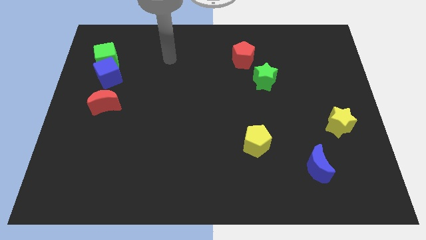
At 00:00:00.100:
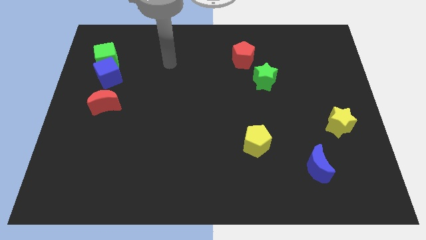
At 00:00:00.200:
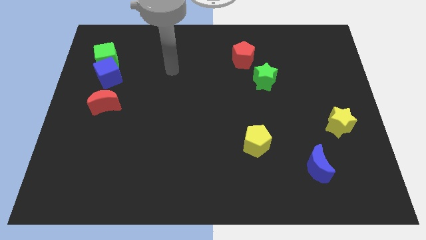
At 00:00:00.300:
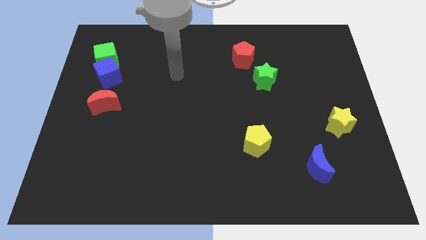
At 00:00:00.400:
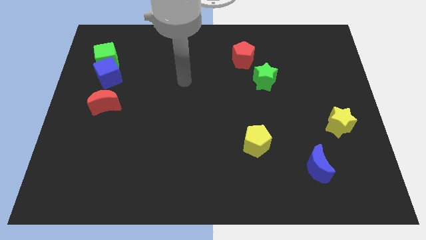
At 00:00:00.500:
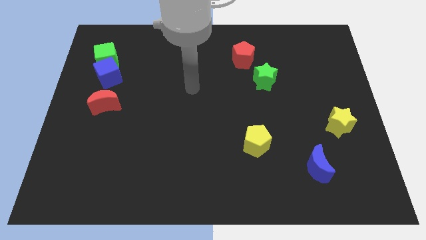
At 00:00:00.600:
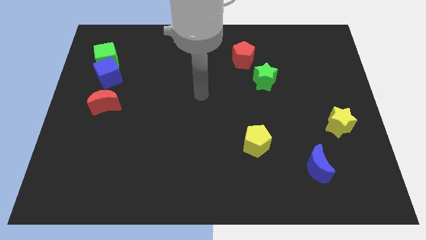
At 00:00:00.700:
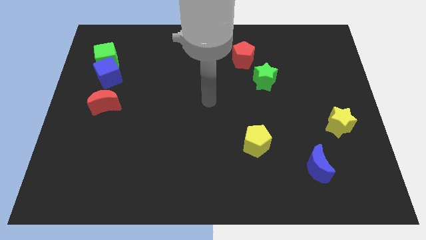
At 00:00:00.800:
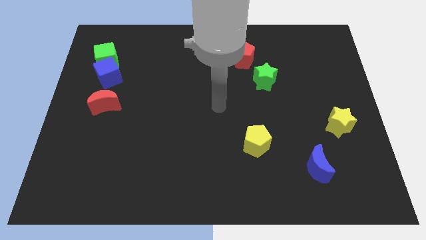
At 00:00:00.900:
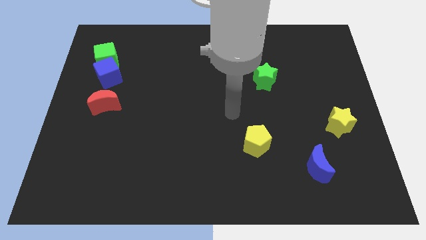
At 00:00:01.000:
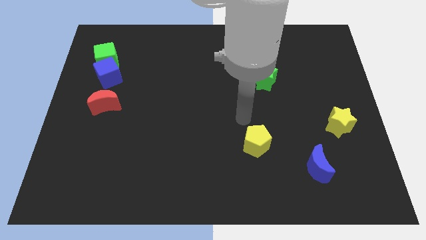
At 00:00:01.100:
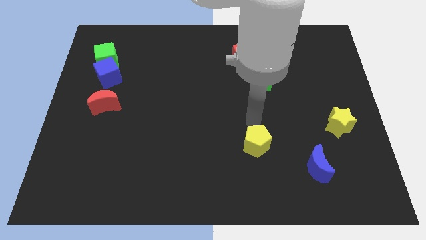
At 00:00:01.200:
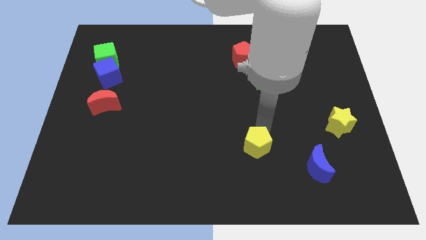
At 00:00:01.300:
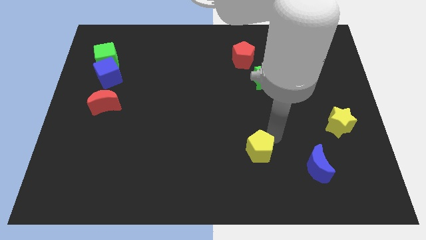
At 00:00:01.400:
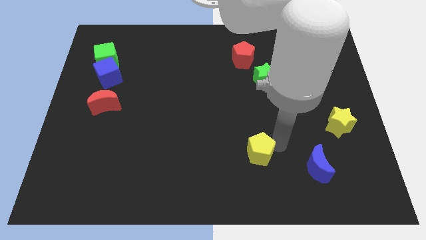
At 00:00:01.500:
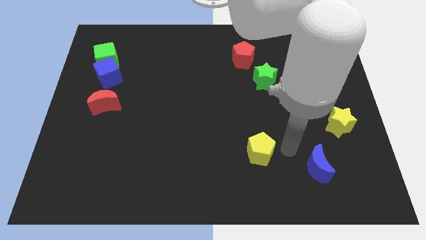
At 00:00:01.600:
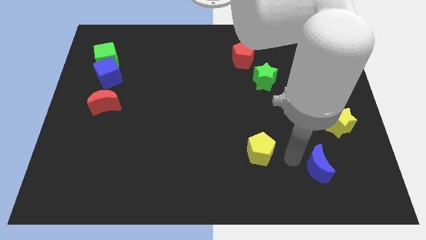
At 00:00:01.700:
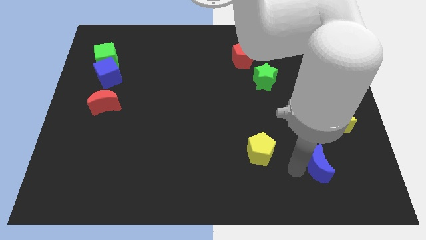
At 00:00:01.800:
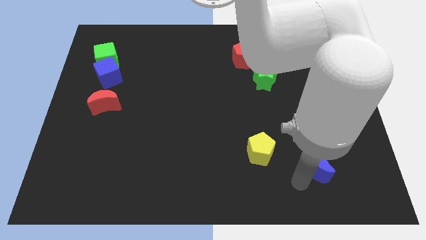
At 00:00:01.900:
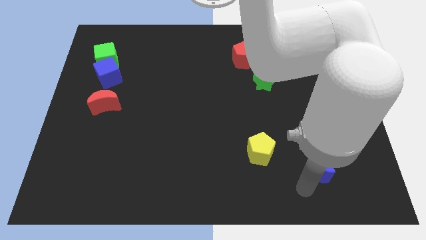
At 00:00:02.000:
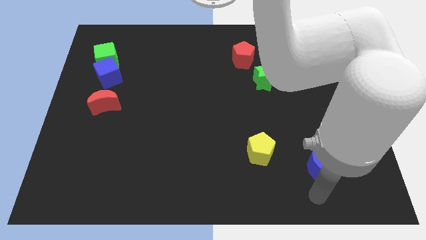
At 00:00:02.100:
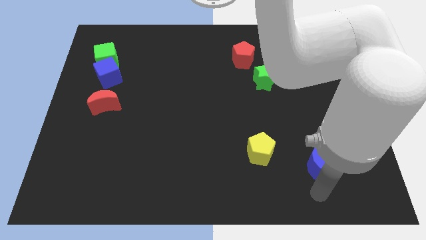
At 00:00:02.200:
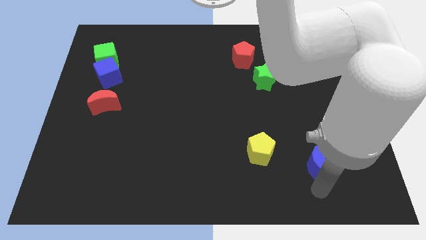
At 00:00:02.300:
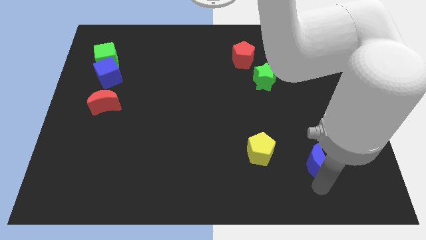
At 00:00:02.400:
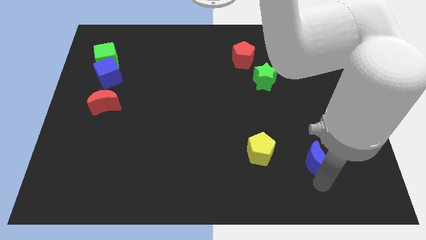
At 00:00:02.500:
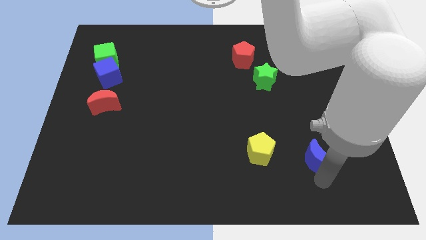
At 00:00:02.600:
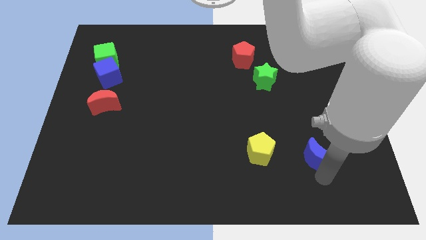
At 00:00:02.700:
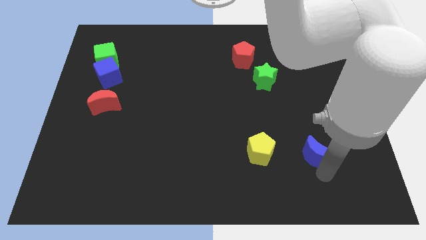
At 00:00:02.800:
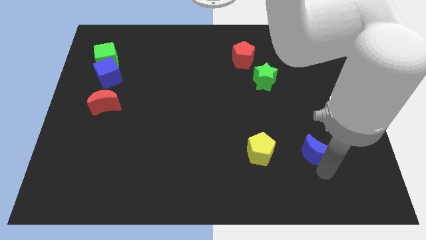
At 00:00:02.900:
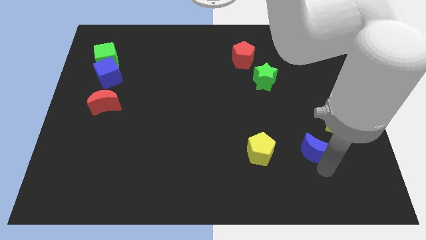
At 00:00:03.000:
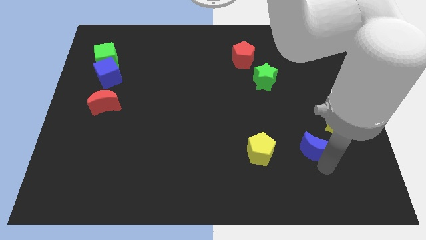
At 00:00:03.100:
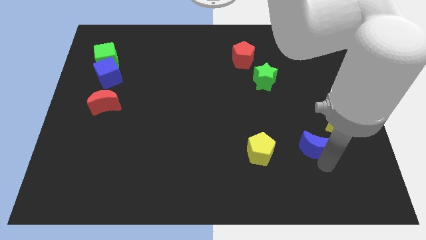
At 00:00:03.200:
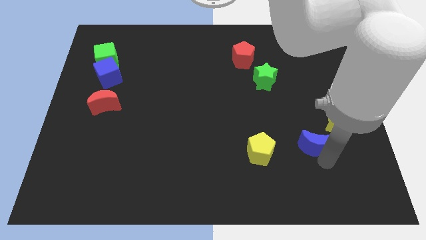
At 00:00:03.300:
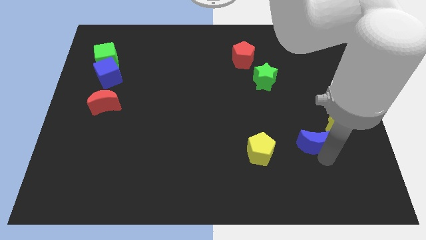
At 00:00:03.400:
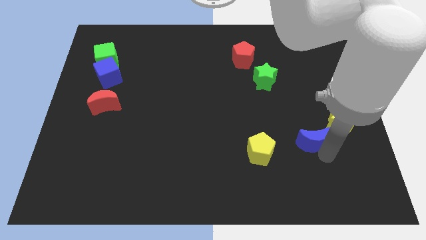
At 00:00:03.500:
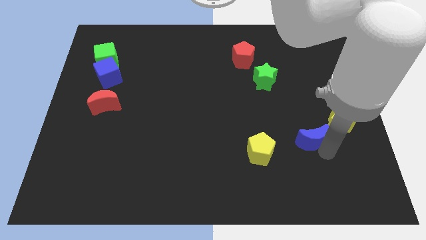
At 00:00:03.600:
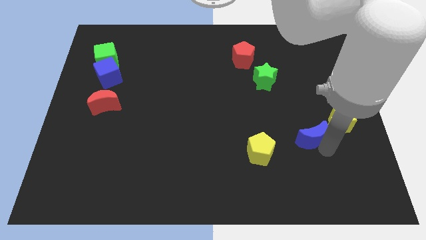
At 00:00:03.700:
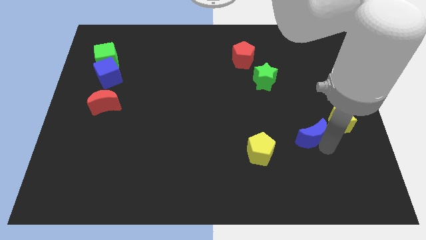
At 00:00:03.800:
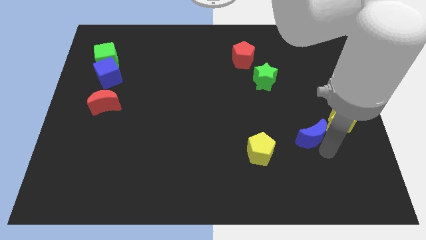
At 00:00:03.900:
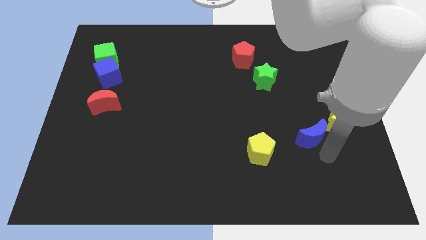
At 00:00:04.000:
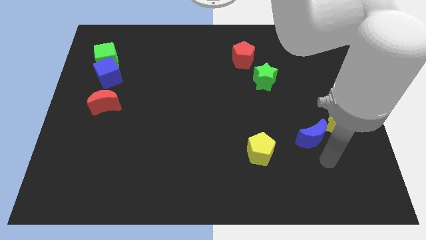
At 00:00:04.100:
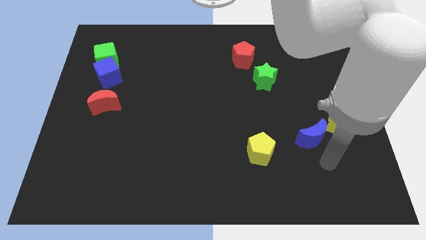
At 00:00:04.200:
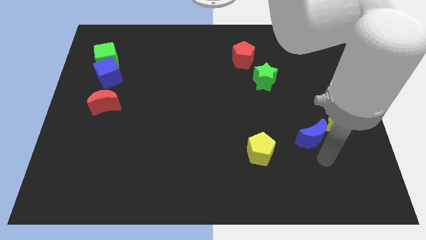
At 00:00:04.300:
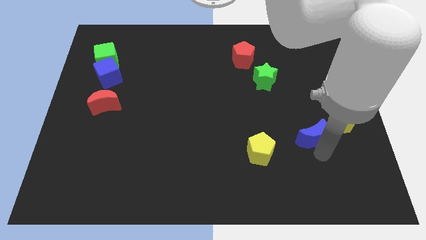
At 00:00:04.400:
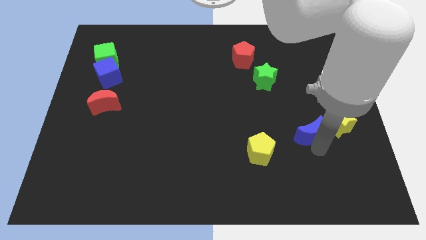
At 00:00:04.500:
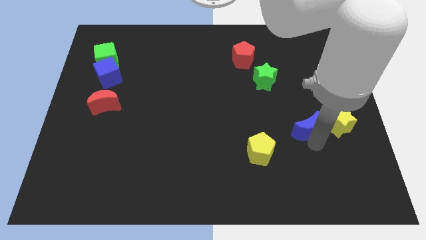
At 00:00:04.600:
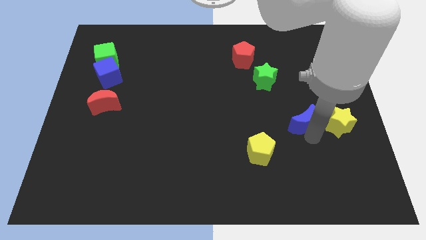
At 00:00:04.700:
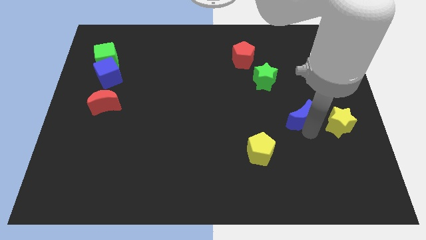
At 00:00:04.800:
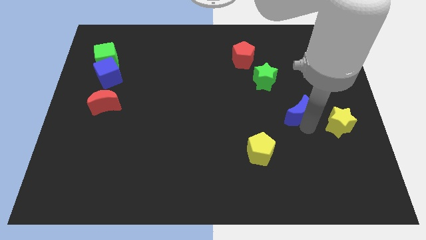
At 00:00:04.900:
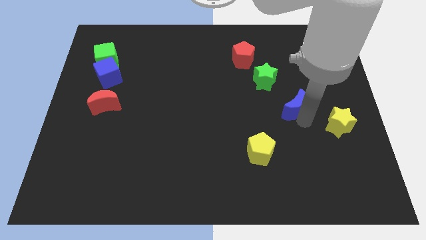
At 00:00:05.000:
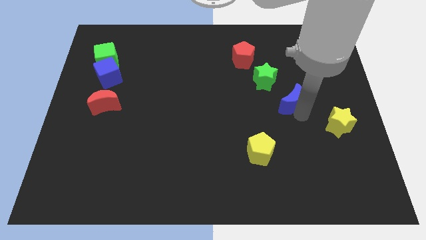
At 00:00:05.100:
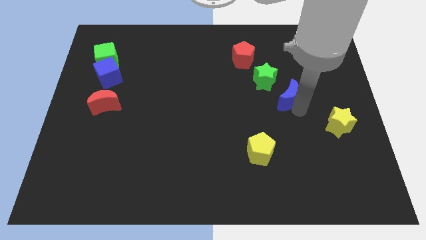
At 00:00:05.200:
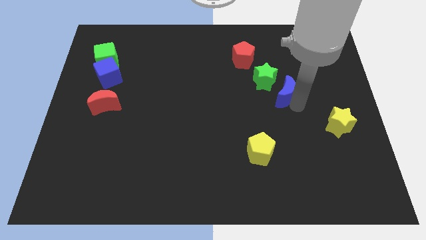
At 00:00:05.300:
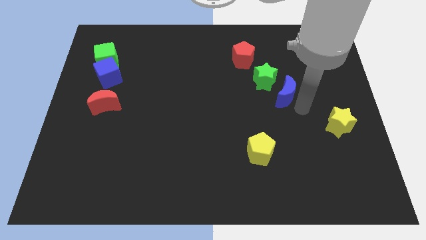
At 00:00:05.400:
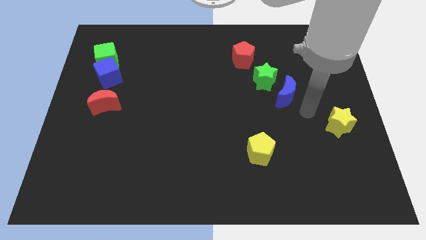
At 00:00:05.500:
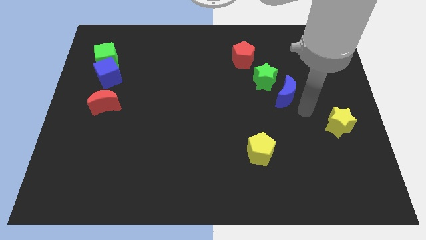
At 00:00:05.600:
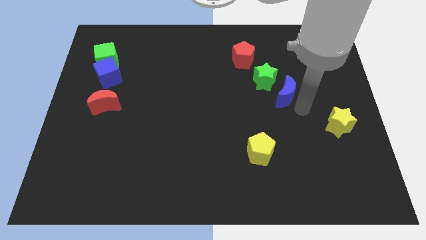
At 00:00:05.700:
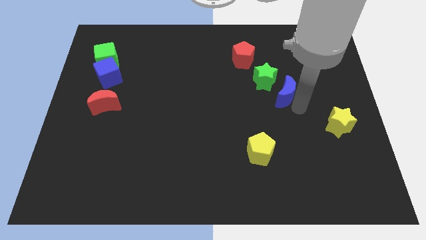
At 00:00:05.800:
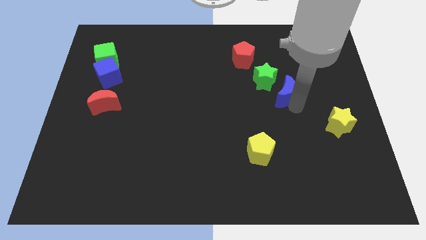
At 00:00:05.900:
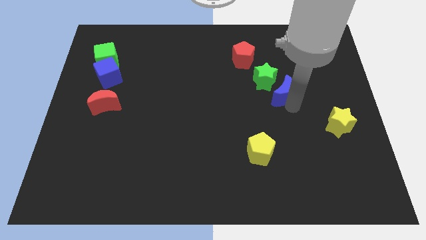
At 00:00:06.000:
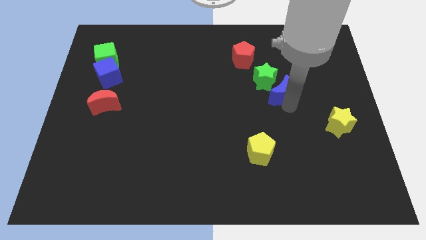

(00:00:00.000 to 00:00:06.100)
put the blue moon to the green star

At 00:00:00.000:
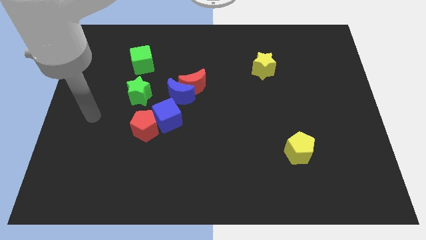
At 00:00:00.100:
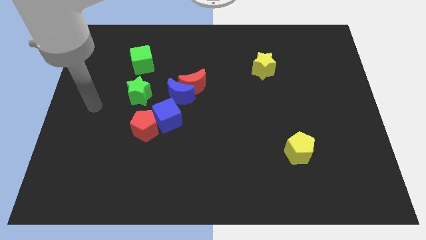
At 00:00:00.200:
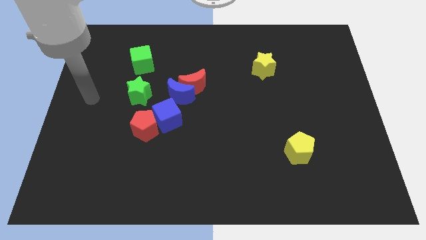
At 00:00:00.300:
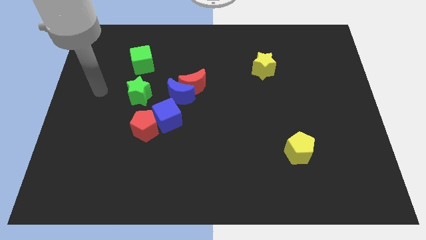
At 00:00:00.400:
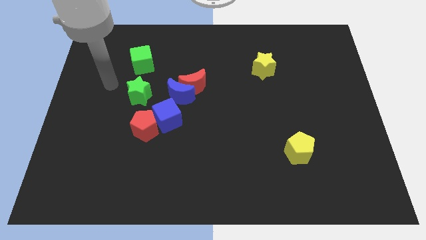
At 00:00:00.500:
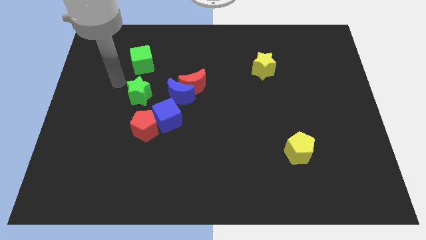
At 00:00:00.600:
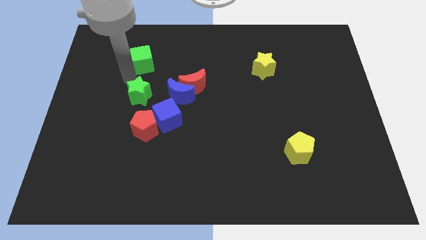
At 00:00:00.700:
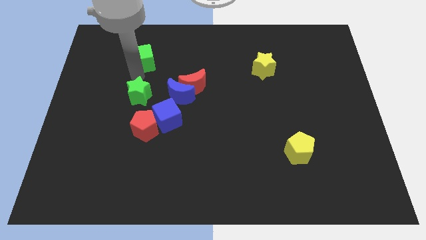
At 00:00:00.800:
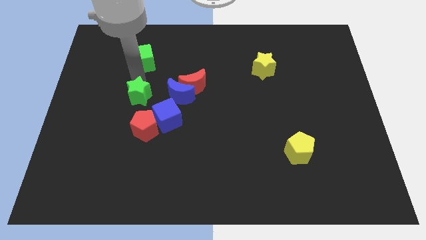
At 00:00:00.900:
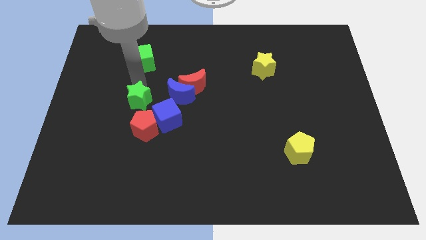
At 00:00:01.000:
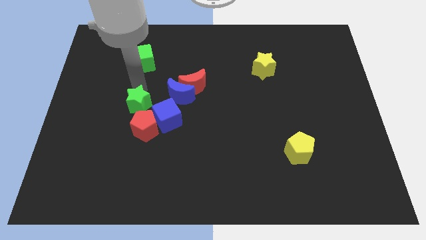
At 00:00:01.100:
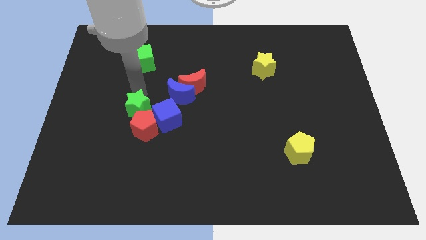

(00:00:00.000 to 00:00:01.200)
push the green star towards the red pentagon
